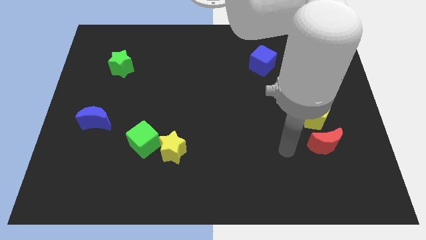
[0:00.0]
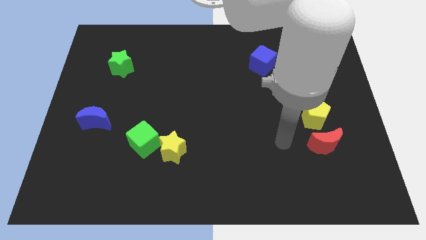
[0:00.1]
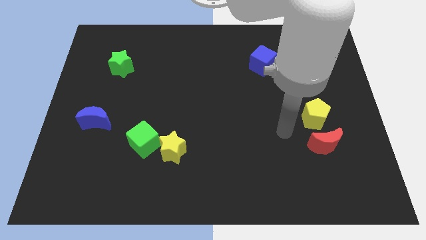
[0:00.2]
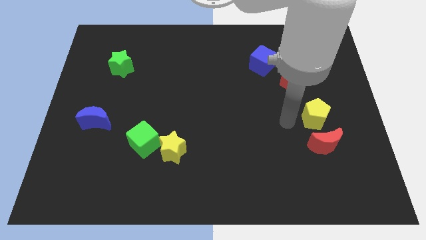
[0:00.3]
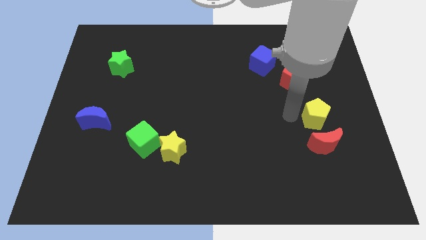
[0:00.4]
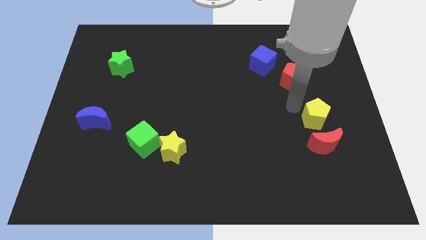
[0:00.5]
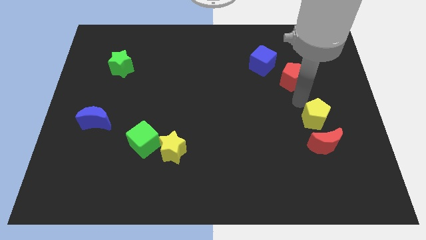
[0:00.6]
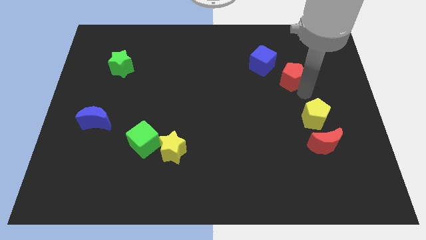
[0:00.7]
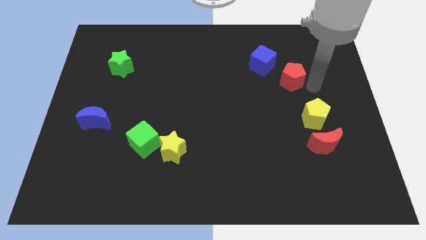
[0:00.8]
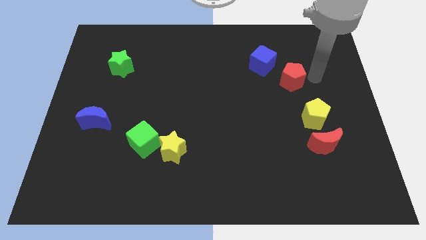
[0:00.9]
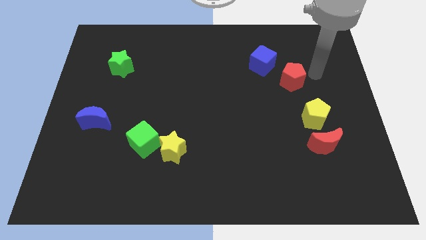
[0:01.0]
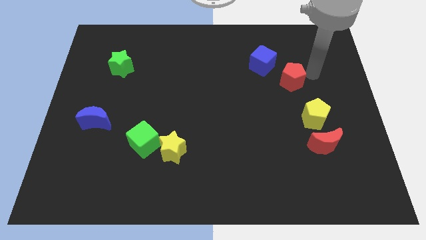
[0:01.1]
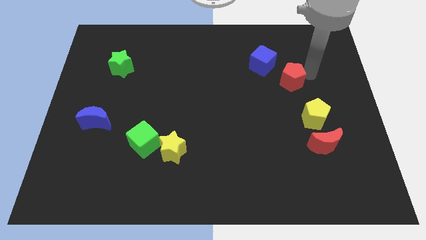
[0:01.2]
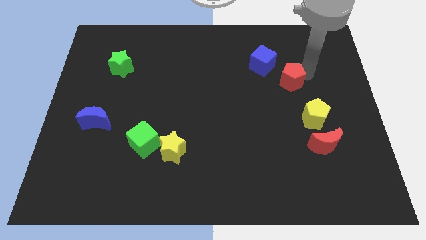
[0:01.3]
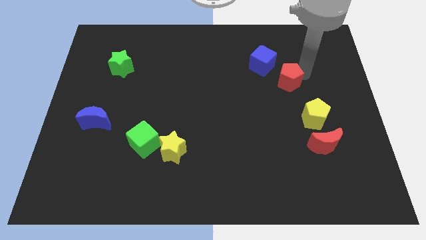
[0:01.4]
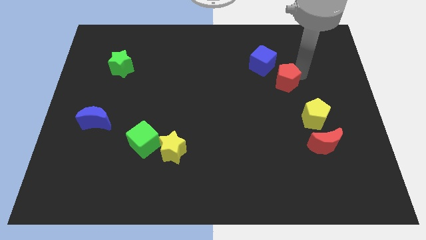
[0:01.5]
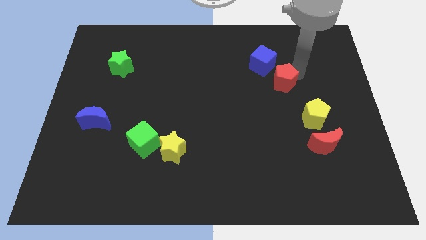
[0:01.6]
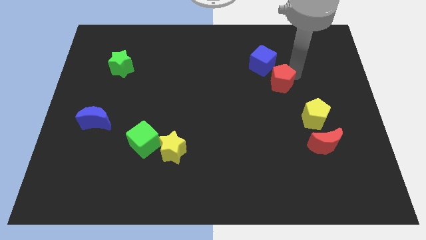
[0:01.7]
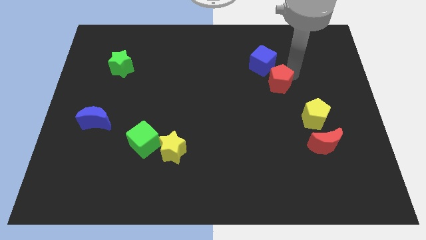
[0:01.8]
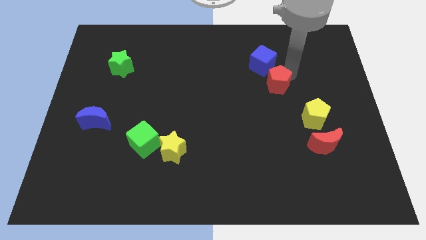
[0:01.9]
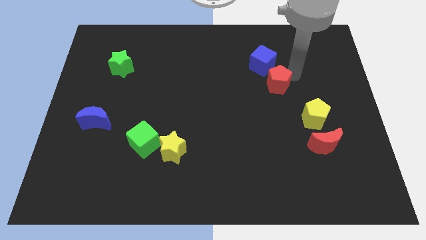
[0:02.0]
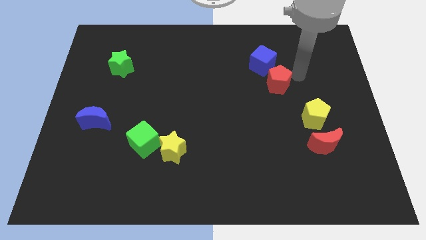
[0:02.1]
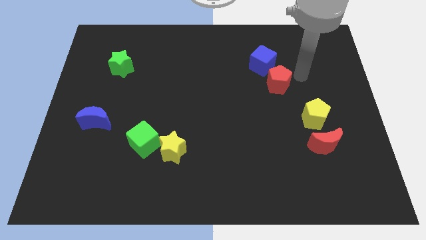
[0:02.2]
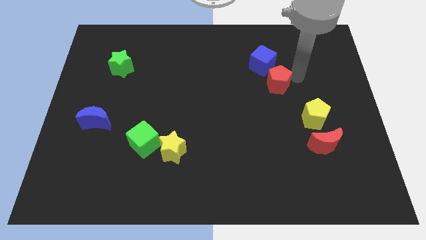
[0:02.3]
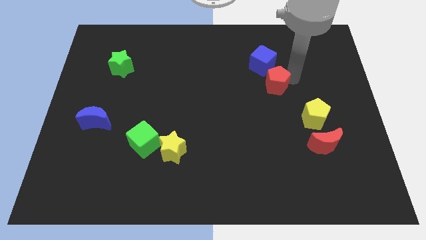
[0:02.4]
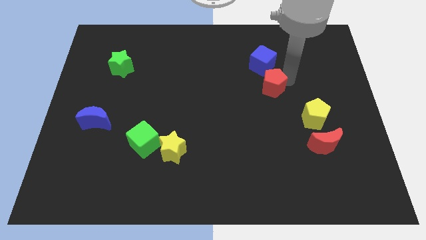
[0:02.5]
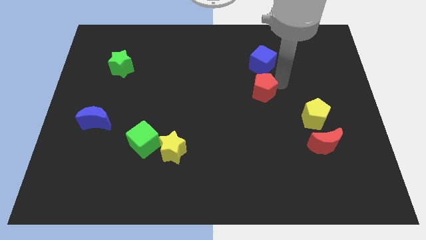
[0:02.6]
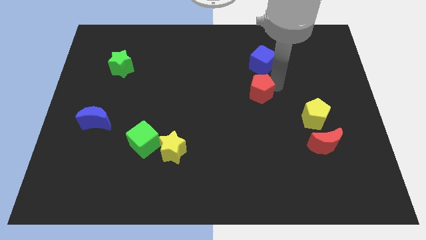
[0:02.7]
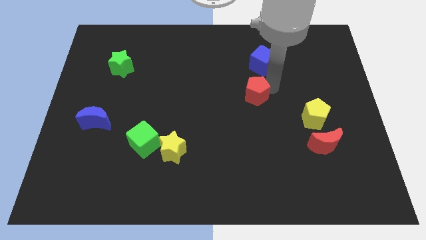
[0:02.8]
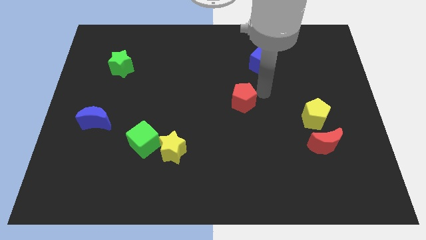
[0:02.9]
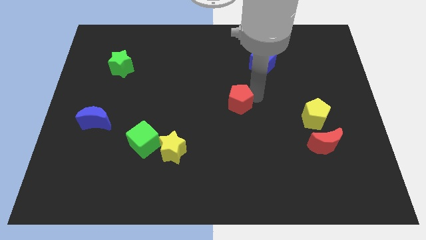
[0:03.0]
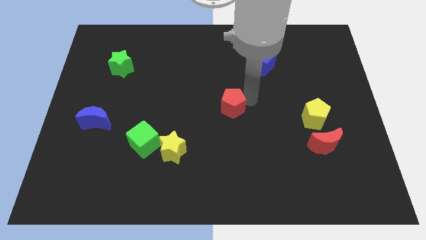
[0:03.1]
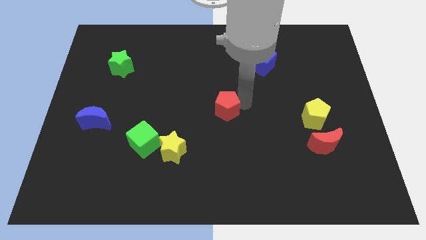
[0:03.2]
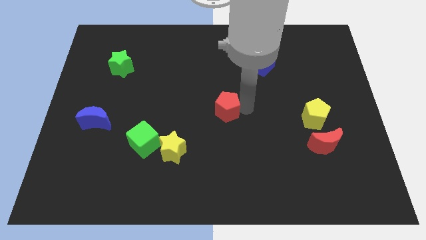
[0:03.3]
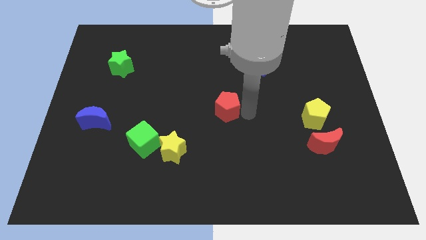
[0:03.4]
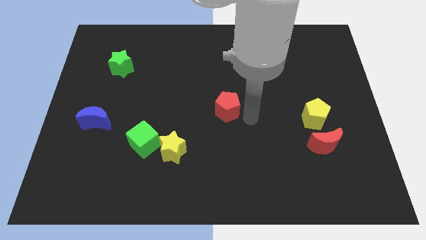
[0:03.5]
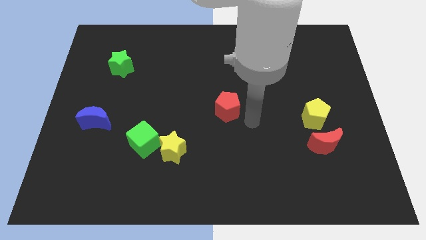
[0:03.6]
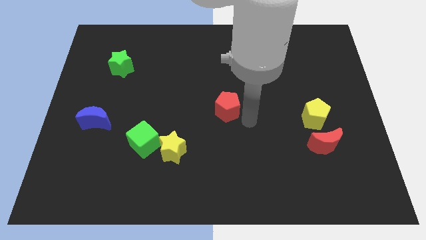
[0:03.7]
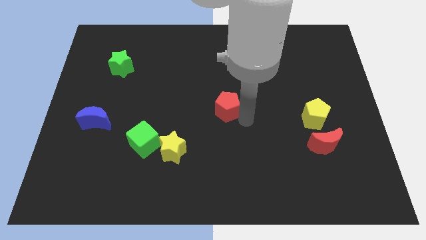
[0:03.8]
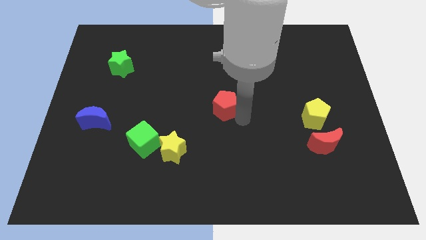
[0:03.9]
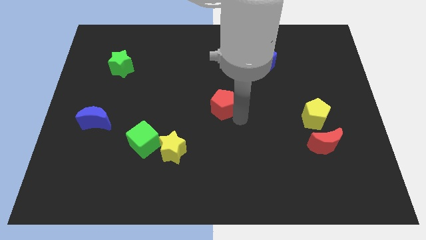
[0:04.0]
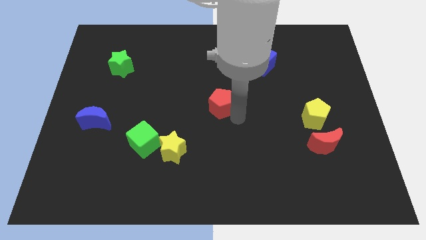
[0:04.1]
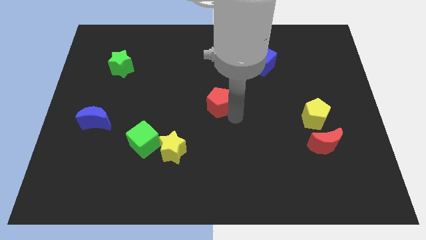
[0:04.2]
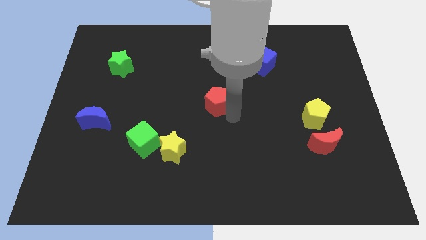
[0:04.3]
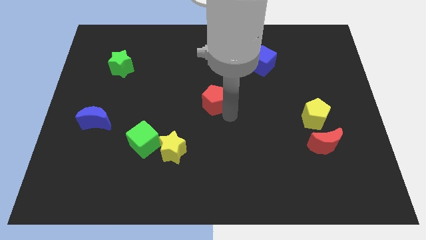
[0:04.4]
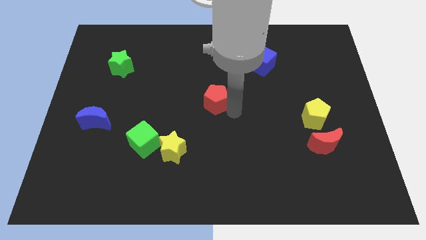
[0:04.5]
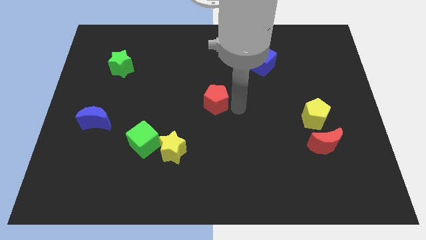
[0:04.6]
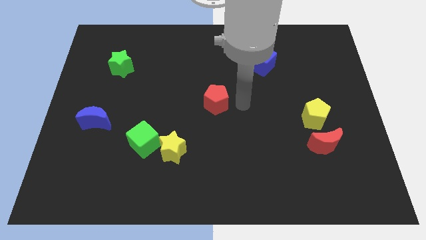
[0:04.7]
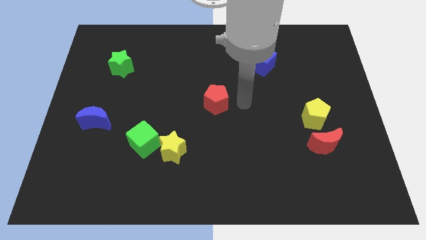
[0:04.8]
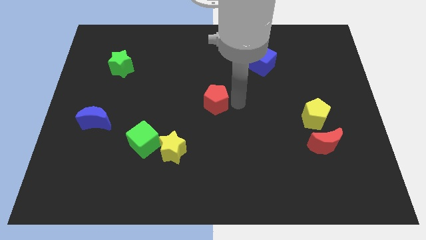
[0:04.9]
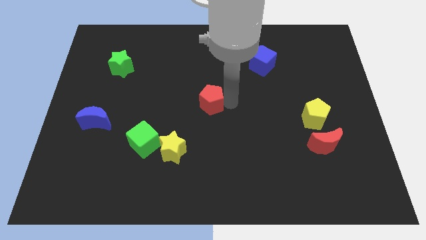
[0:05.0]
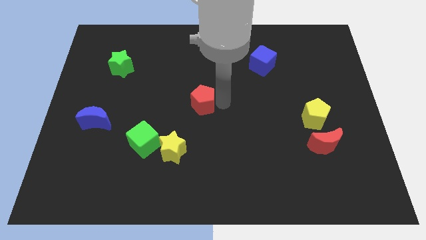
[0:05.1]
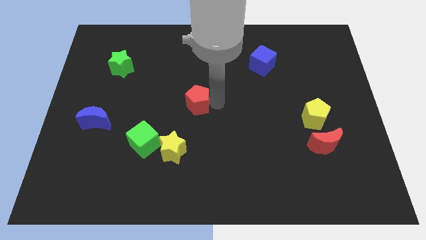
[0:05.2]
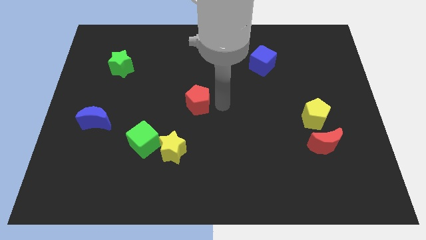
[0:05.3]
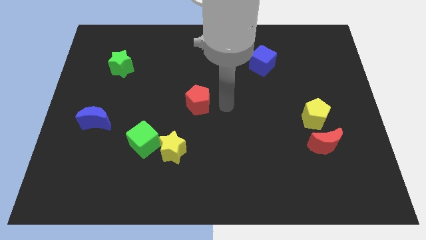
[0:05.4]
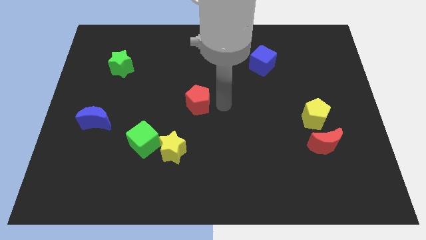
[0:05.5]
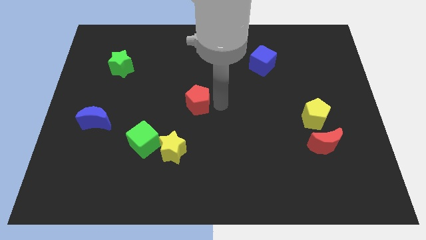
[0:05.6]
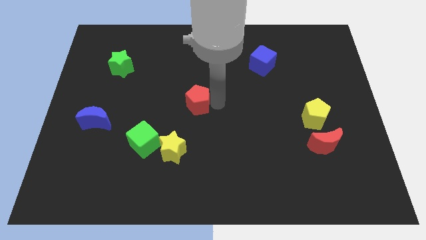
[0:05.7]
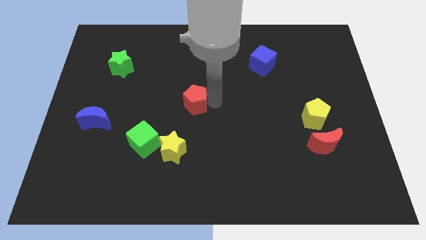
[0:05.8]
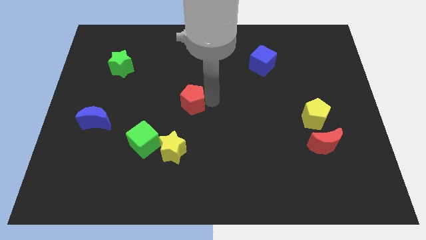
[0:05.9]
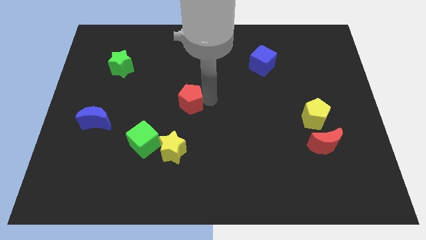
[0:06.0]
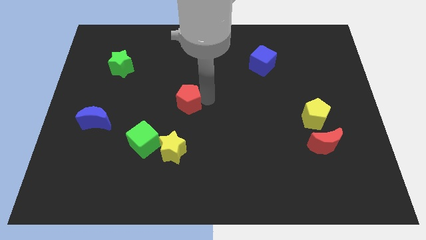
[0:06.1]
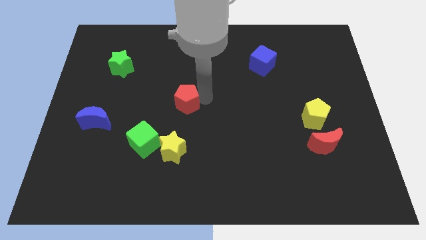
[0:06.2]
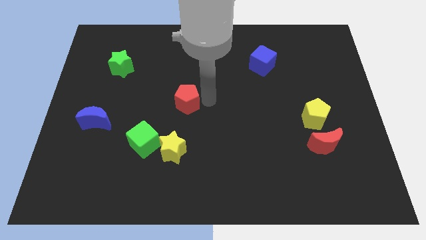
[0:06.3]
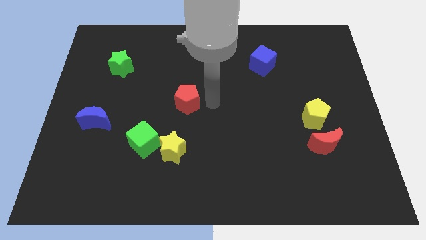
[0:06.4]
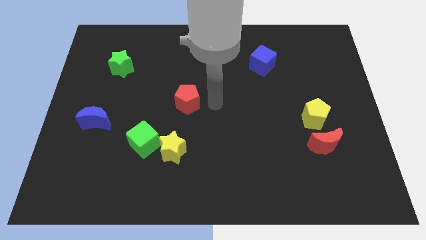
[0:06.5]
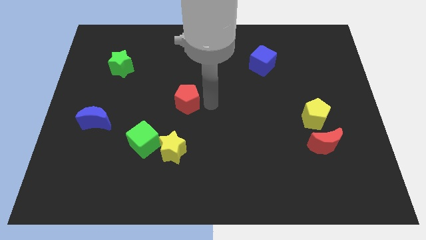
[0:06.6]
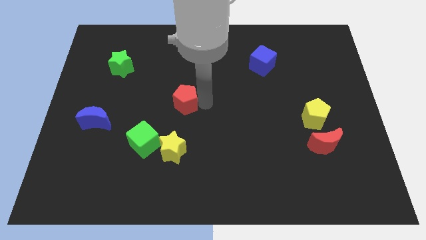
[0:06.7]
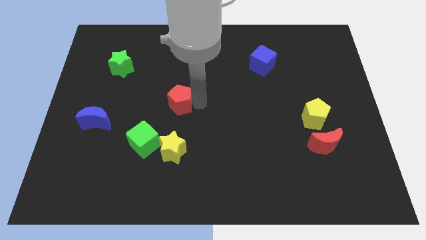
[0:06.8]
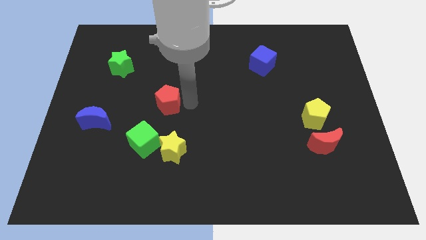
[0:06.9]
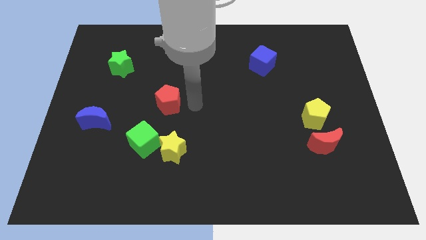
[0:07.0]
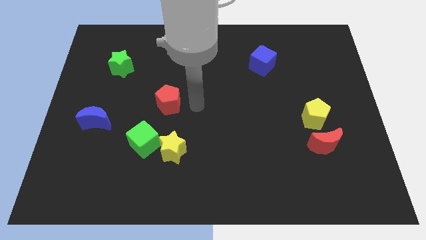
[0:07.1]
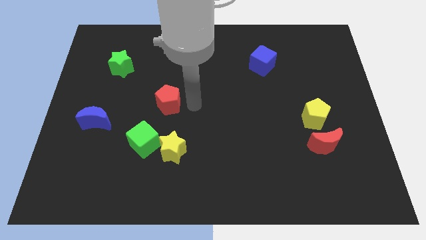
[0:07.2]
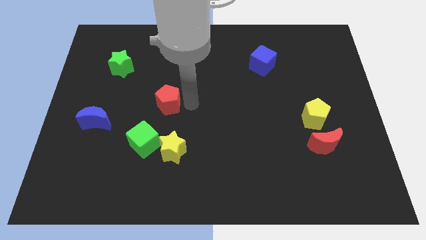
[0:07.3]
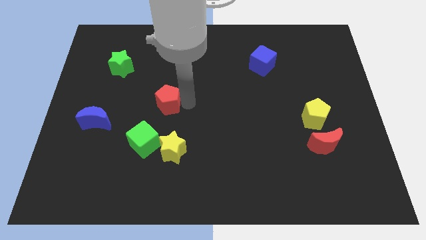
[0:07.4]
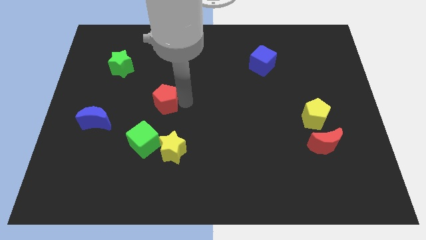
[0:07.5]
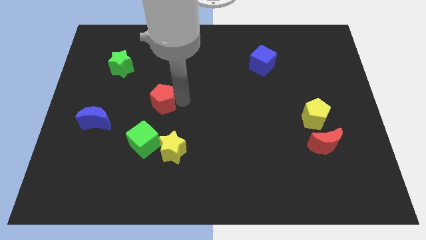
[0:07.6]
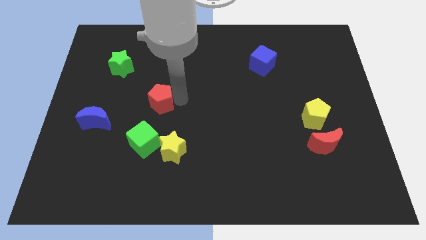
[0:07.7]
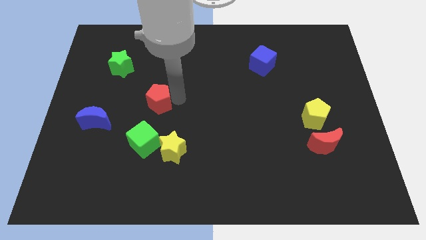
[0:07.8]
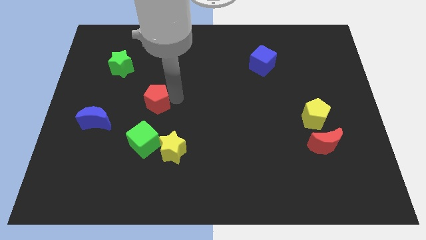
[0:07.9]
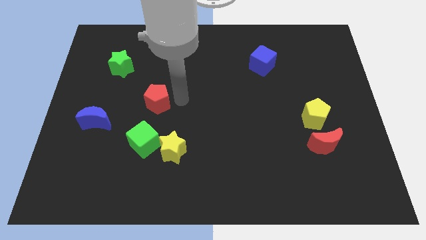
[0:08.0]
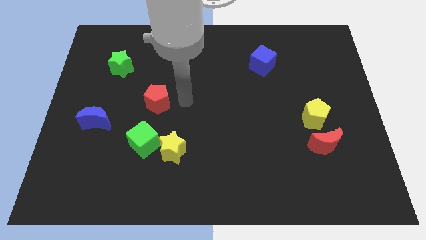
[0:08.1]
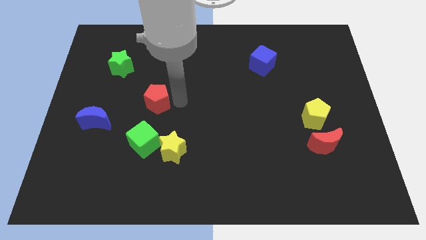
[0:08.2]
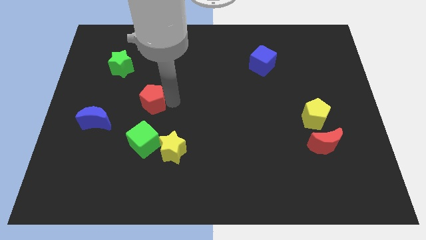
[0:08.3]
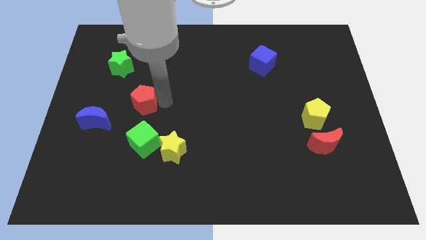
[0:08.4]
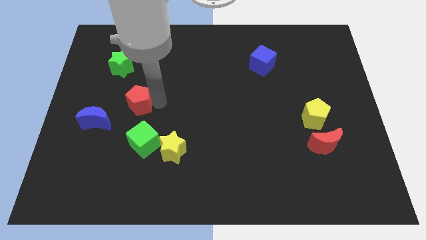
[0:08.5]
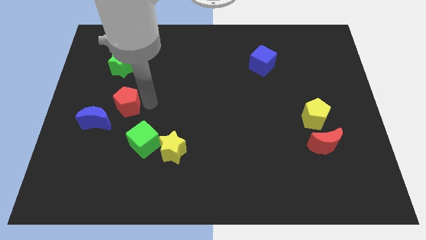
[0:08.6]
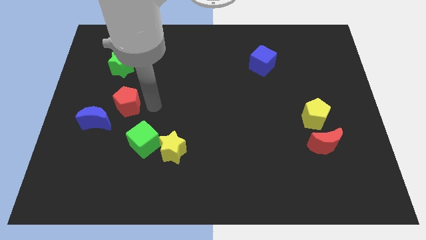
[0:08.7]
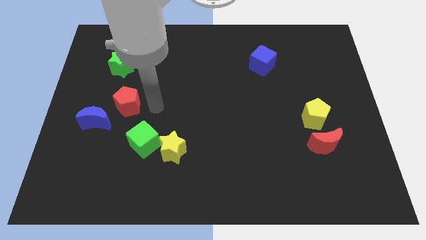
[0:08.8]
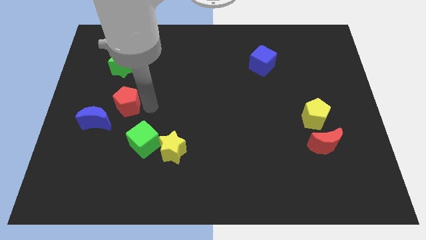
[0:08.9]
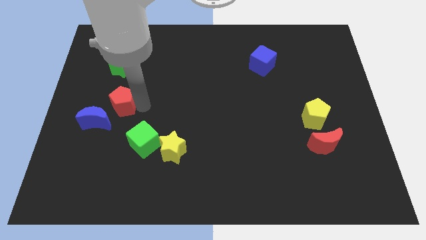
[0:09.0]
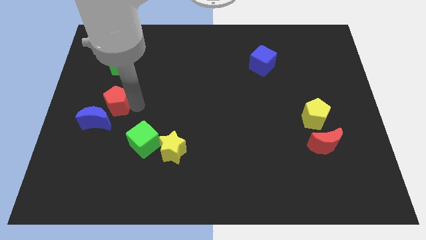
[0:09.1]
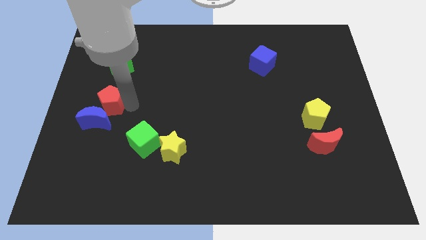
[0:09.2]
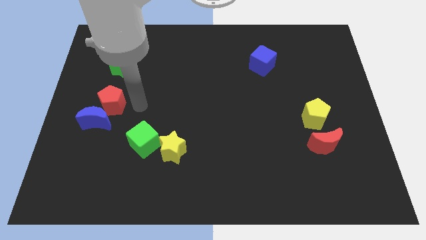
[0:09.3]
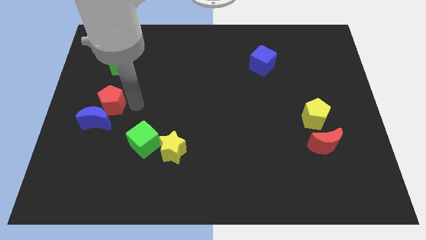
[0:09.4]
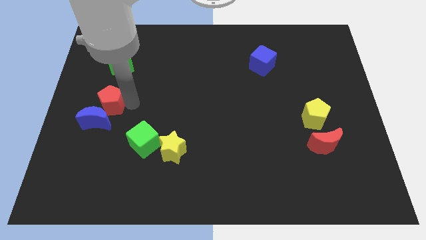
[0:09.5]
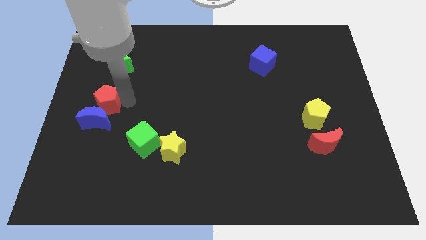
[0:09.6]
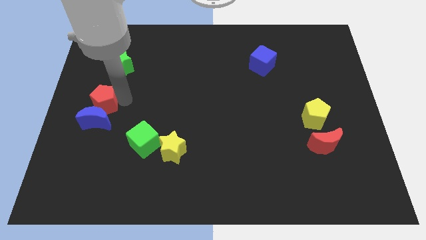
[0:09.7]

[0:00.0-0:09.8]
push the red pentagon to the left side
